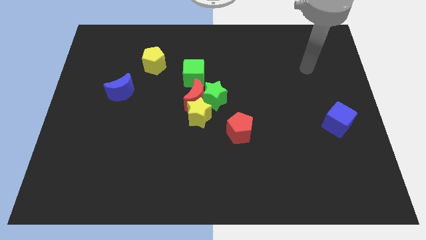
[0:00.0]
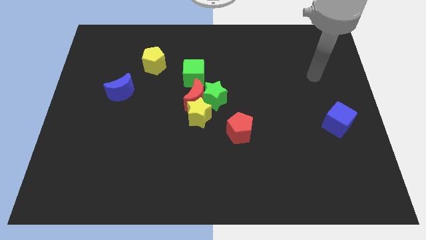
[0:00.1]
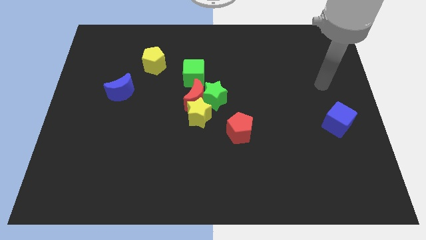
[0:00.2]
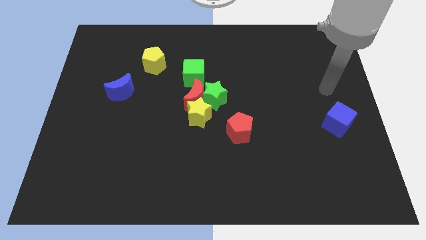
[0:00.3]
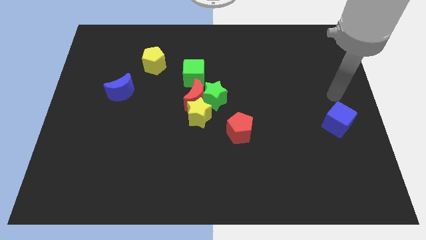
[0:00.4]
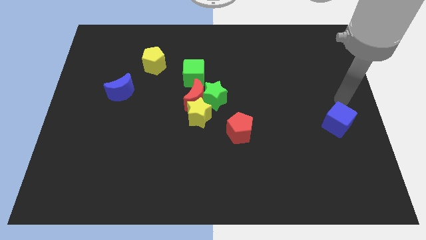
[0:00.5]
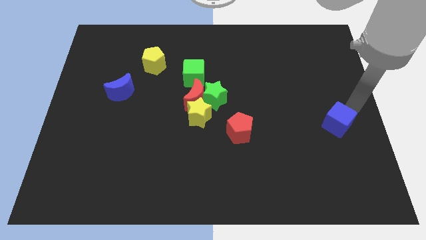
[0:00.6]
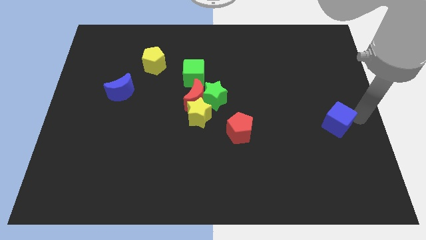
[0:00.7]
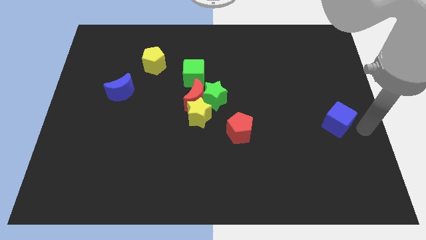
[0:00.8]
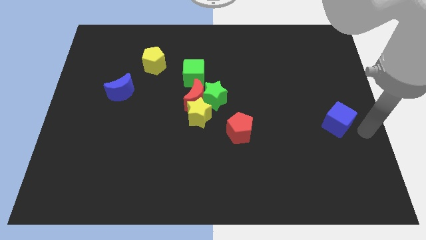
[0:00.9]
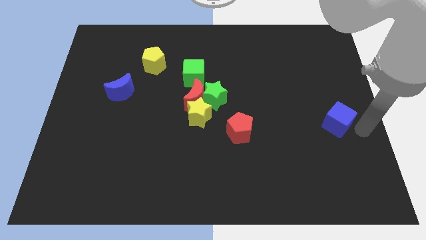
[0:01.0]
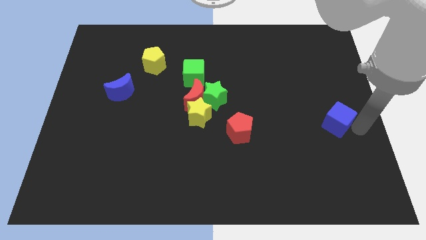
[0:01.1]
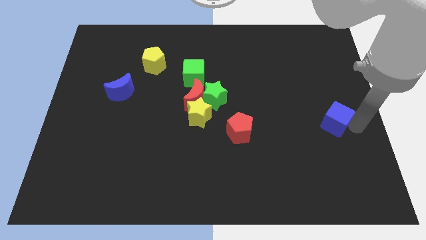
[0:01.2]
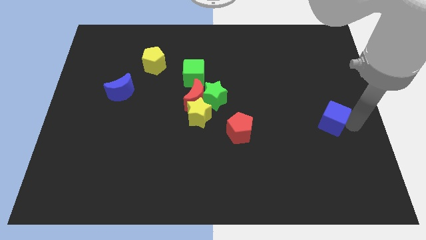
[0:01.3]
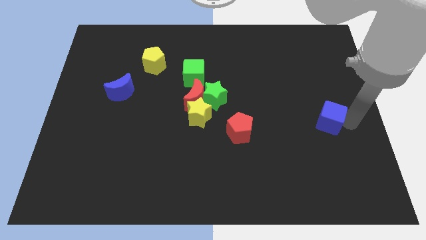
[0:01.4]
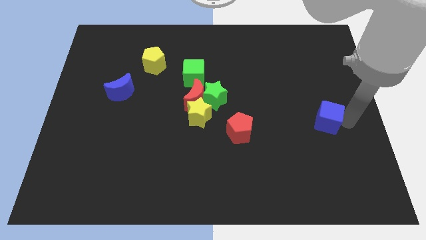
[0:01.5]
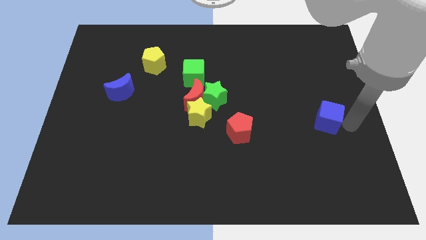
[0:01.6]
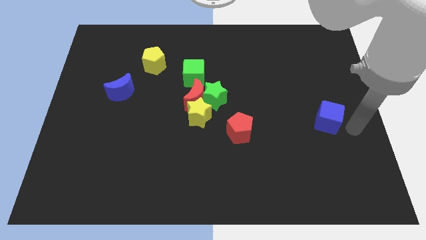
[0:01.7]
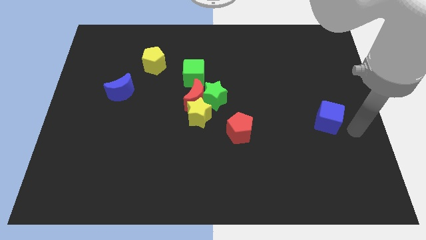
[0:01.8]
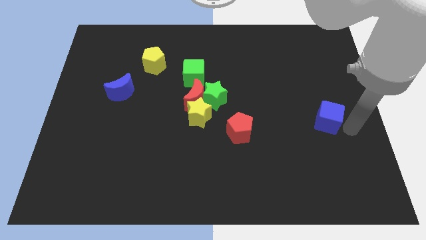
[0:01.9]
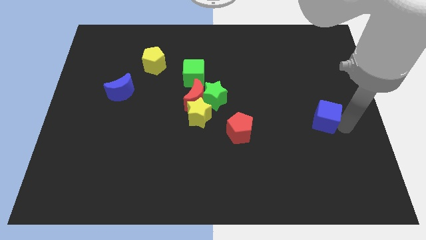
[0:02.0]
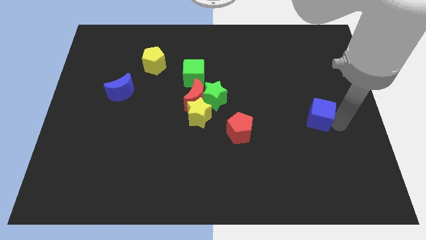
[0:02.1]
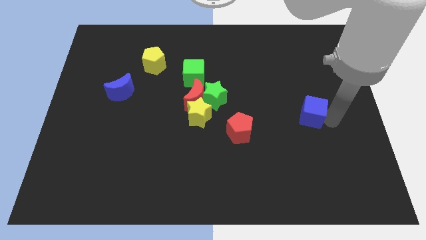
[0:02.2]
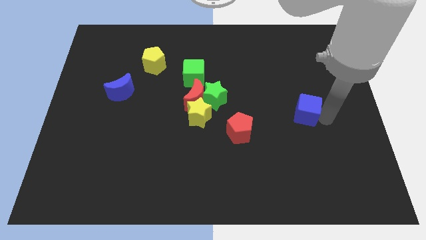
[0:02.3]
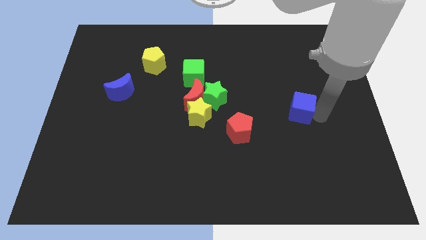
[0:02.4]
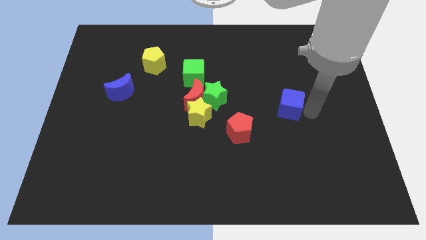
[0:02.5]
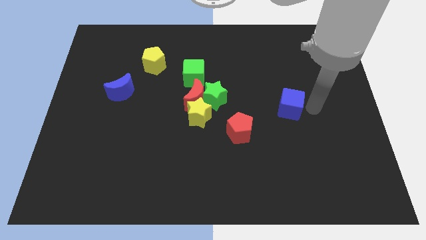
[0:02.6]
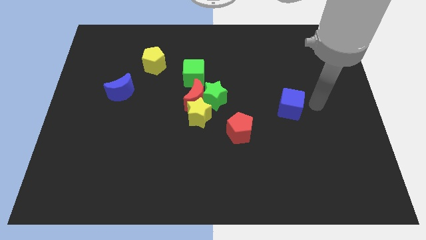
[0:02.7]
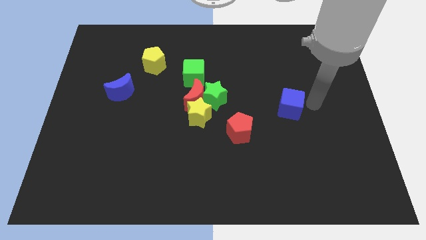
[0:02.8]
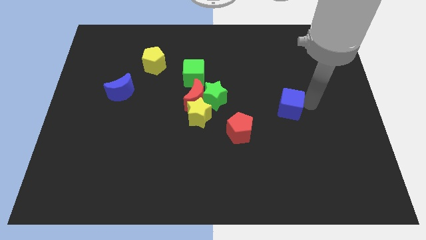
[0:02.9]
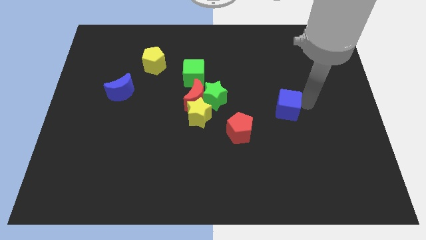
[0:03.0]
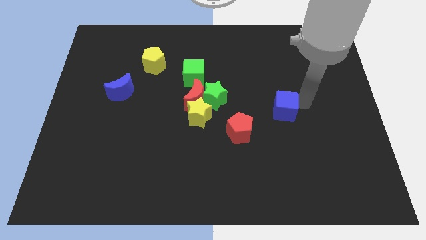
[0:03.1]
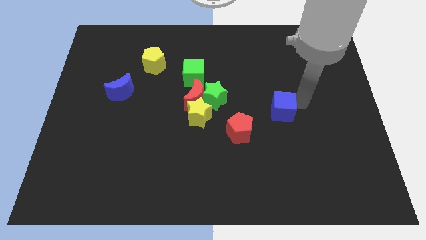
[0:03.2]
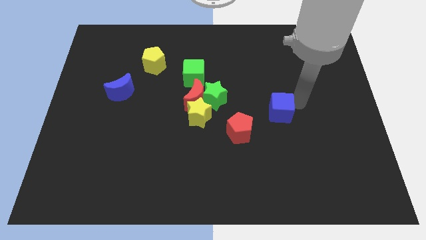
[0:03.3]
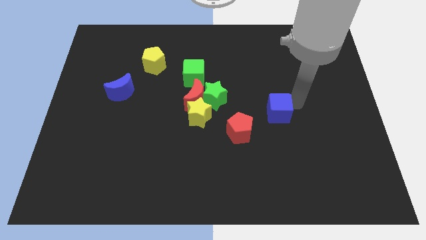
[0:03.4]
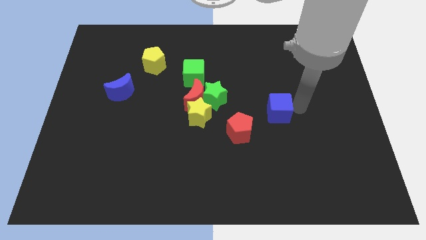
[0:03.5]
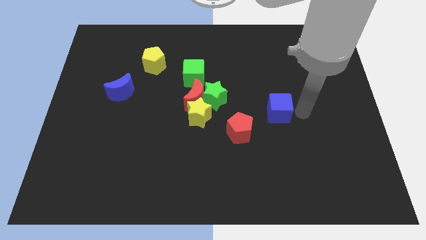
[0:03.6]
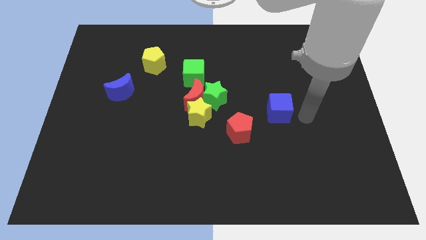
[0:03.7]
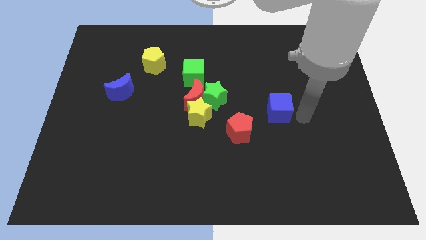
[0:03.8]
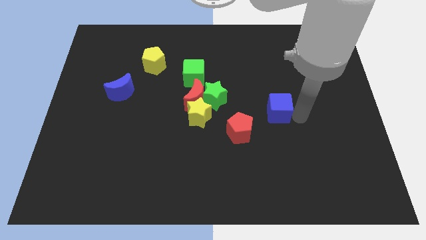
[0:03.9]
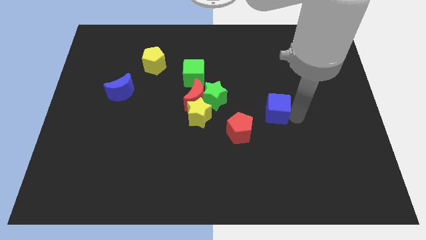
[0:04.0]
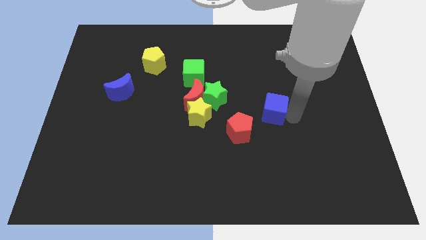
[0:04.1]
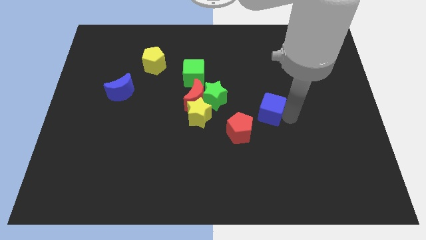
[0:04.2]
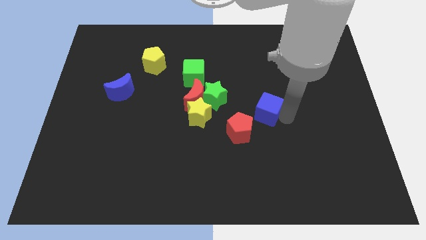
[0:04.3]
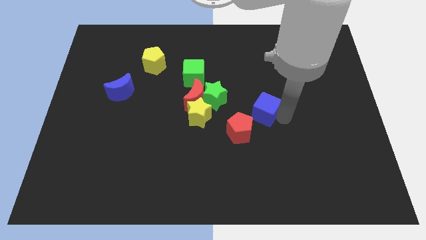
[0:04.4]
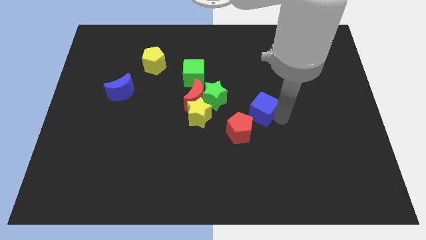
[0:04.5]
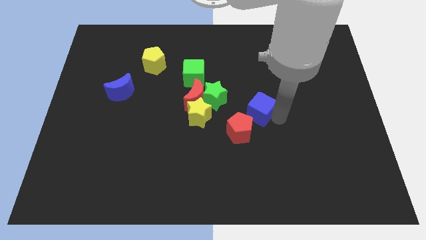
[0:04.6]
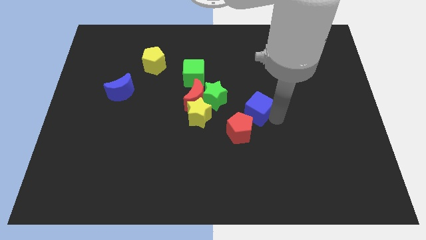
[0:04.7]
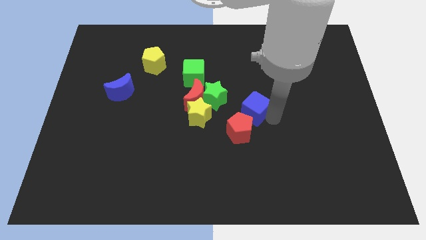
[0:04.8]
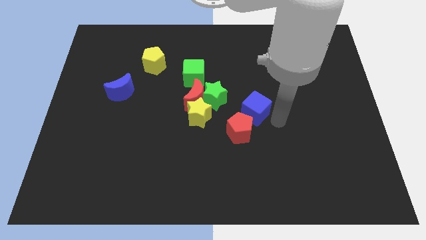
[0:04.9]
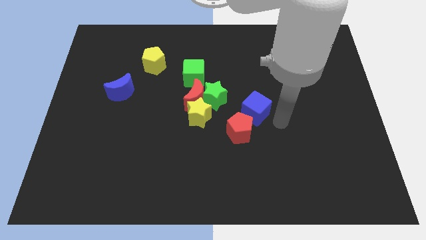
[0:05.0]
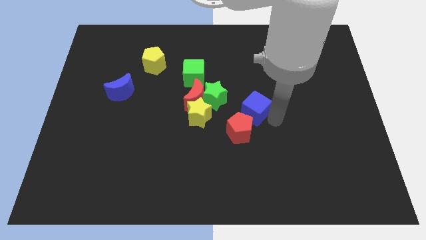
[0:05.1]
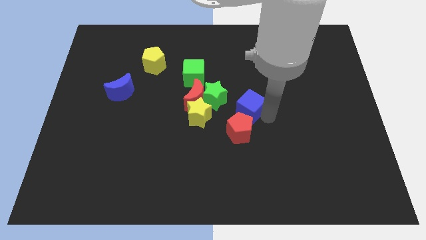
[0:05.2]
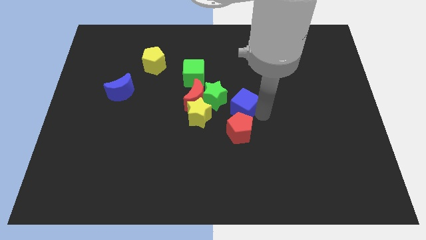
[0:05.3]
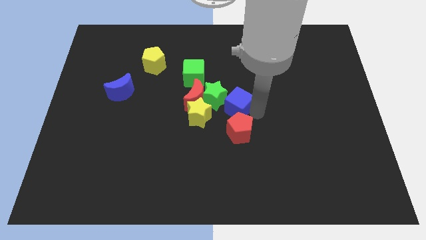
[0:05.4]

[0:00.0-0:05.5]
move the blue cube to the green star

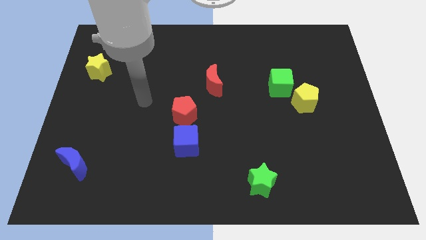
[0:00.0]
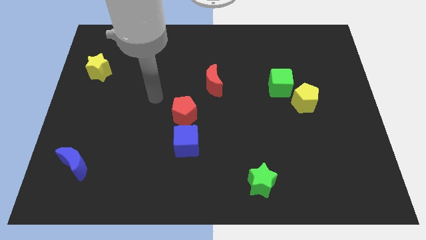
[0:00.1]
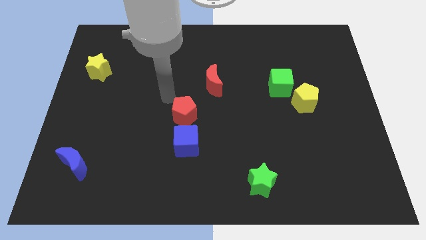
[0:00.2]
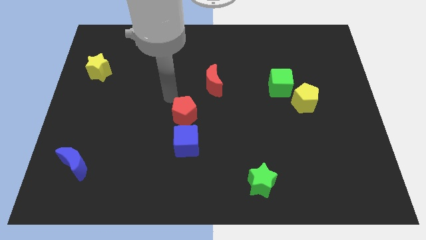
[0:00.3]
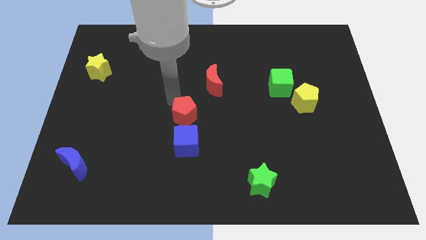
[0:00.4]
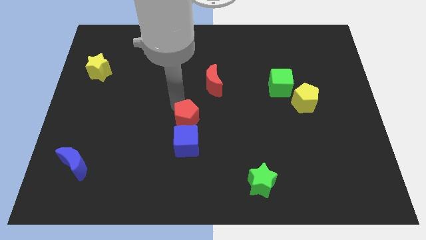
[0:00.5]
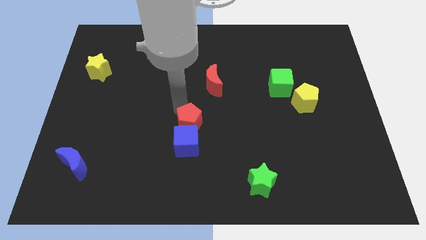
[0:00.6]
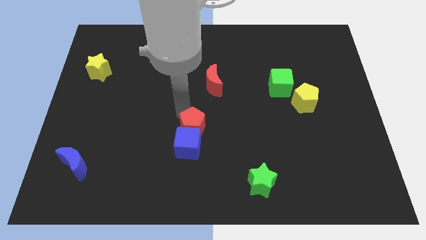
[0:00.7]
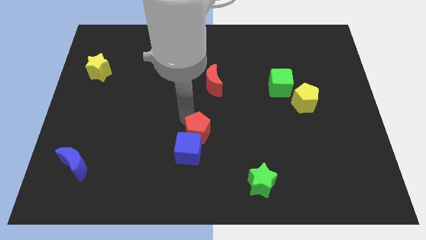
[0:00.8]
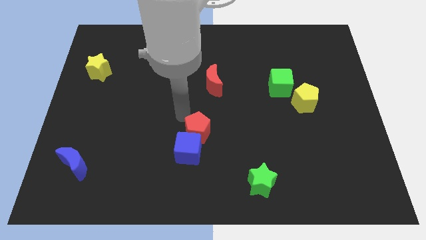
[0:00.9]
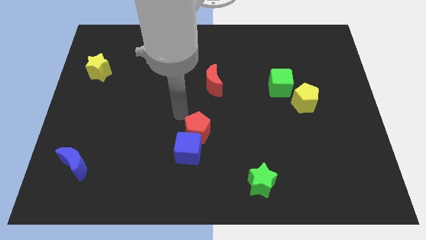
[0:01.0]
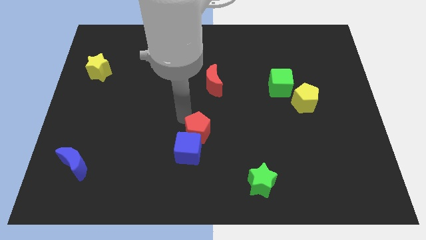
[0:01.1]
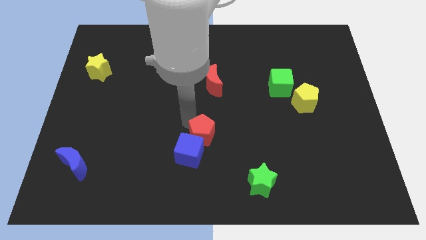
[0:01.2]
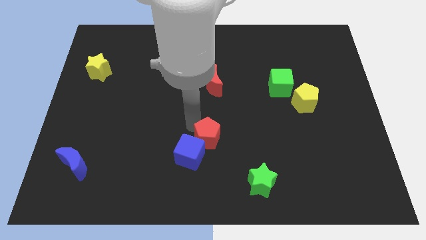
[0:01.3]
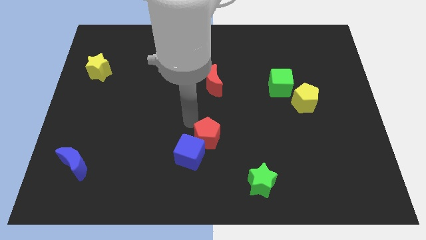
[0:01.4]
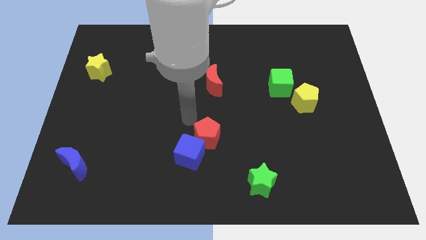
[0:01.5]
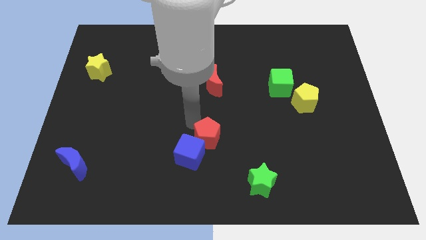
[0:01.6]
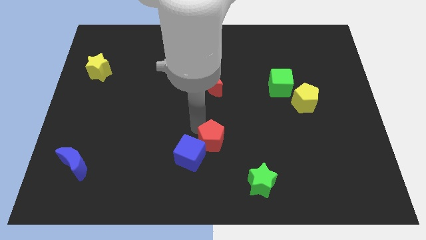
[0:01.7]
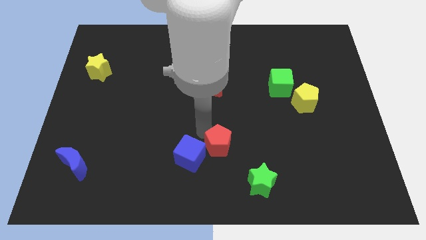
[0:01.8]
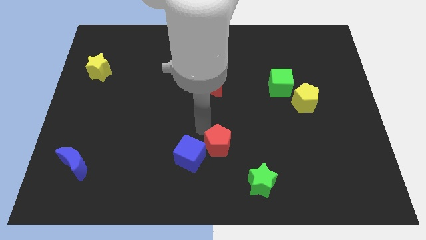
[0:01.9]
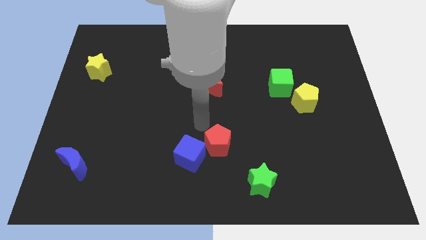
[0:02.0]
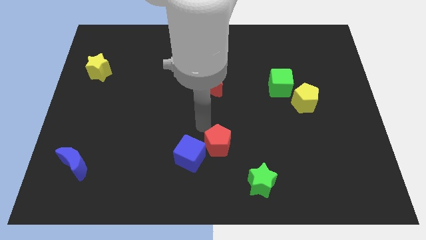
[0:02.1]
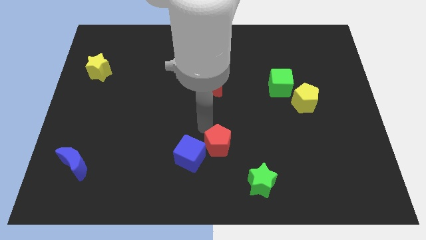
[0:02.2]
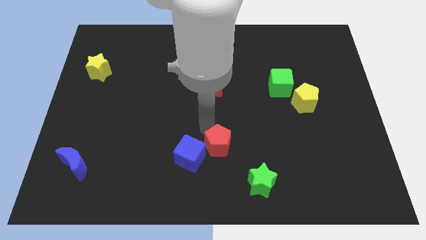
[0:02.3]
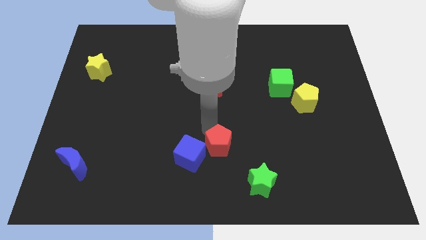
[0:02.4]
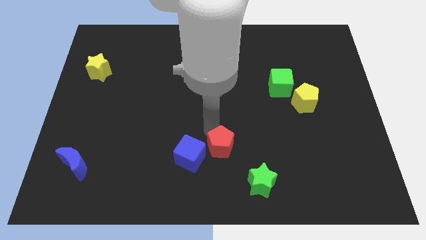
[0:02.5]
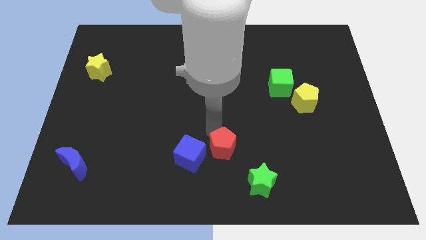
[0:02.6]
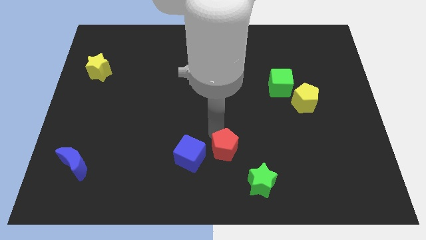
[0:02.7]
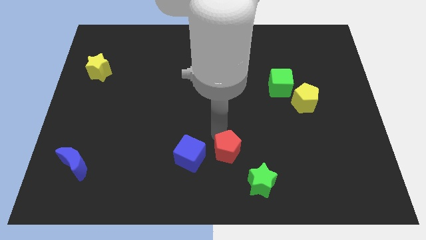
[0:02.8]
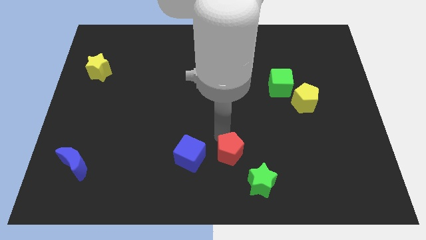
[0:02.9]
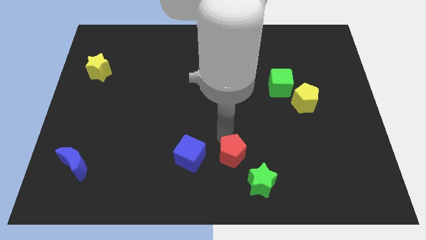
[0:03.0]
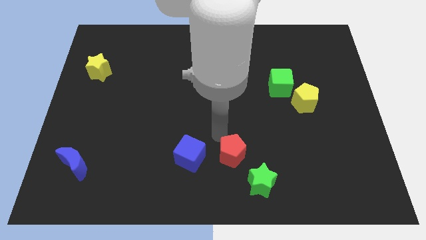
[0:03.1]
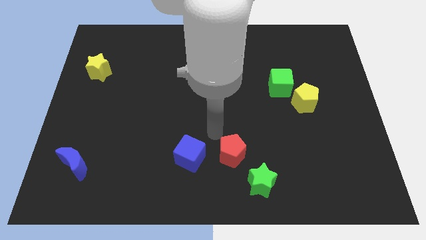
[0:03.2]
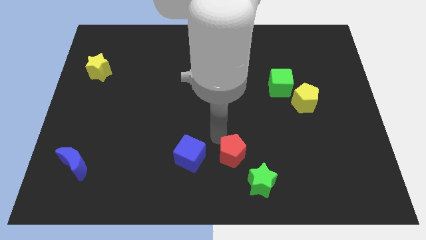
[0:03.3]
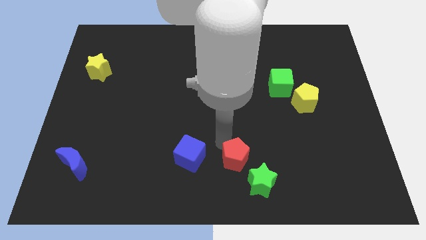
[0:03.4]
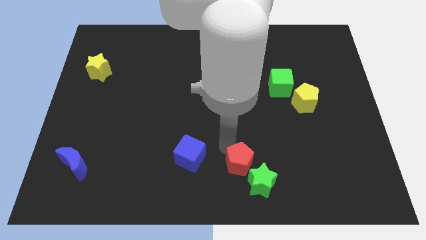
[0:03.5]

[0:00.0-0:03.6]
push the red pentagon next to the green star
